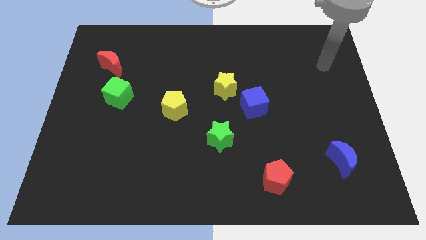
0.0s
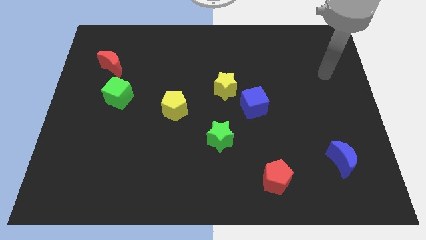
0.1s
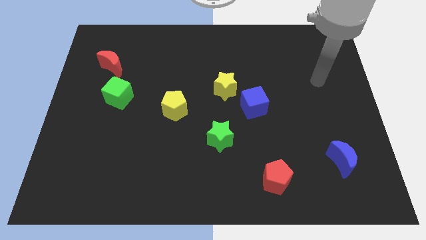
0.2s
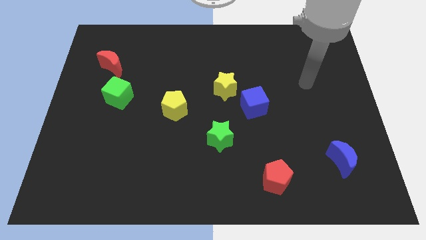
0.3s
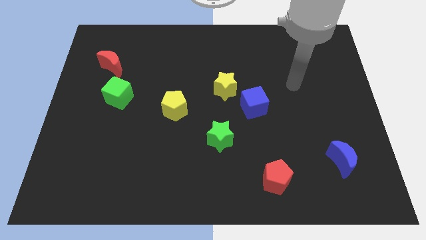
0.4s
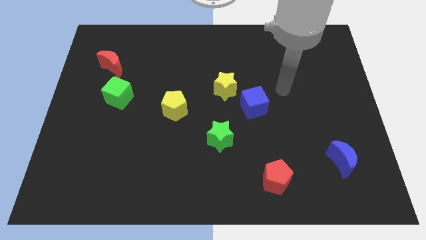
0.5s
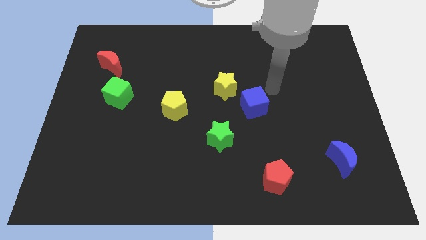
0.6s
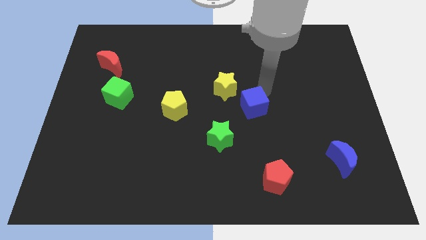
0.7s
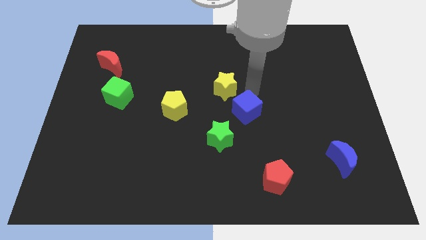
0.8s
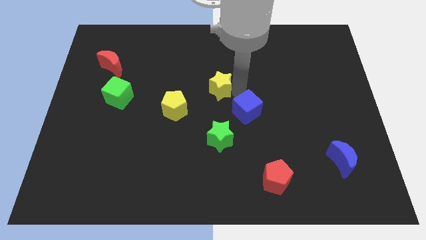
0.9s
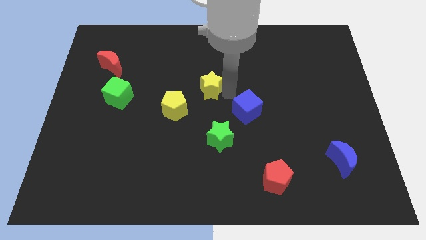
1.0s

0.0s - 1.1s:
move the blue cube away from the yellow star

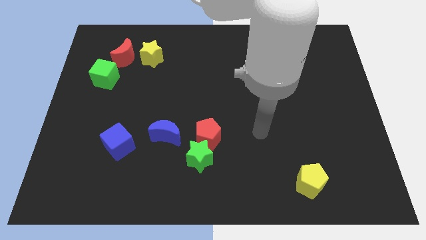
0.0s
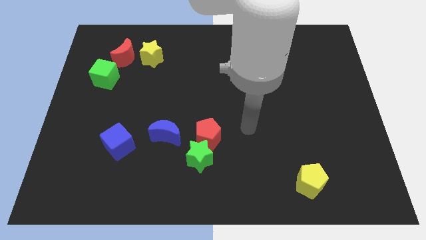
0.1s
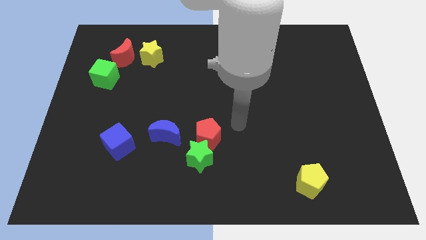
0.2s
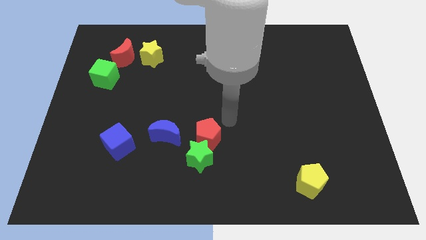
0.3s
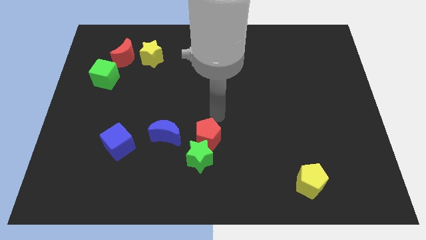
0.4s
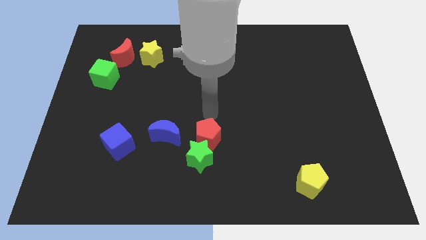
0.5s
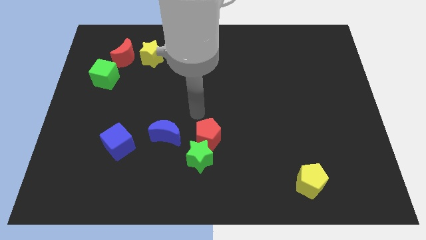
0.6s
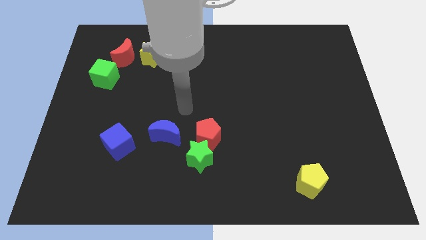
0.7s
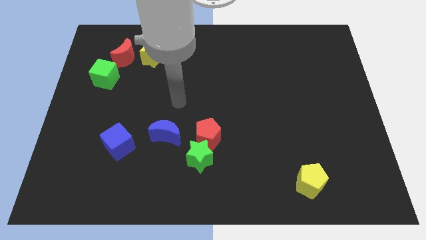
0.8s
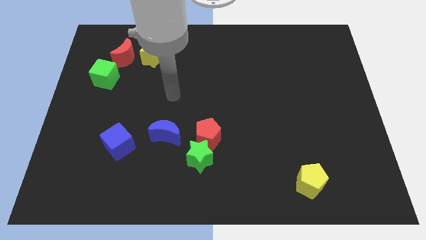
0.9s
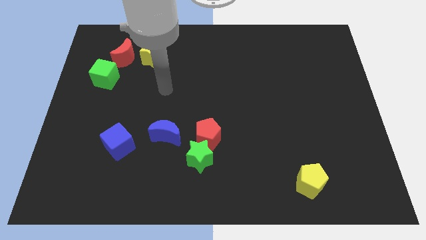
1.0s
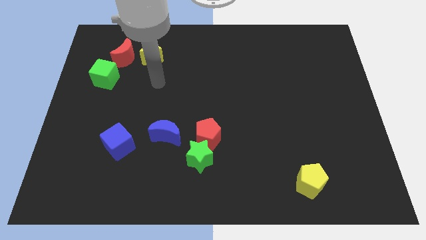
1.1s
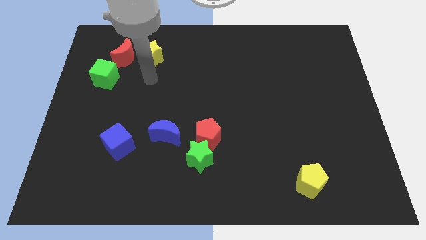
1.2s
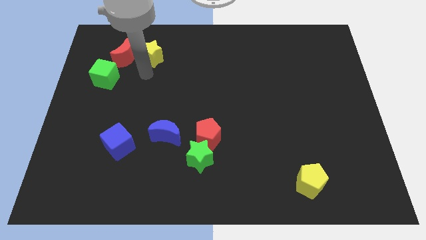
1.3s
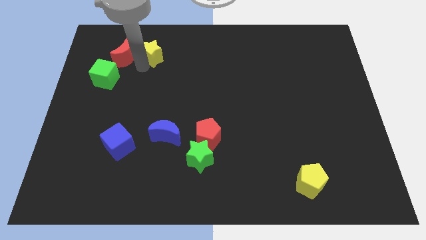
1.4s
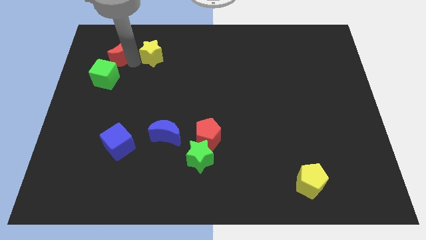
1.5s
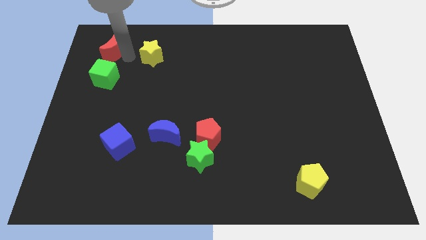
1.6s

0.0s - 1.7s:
move the yellow star away from the red moon

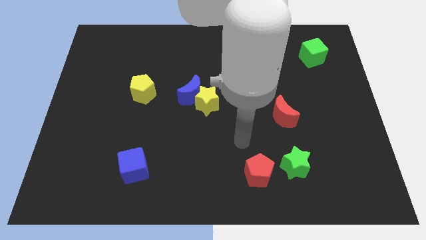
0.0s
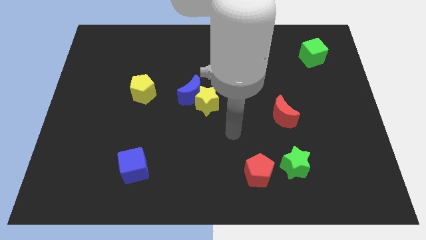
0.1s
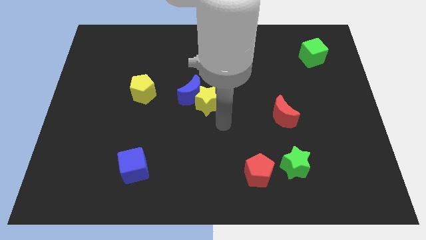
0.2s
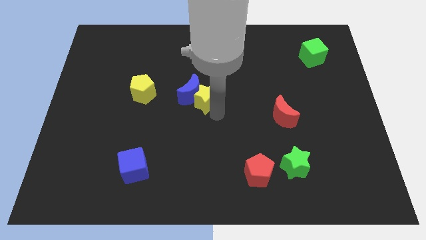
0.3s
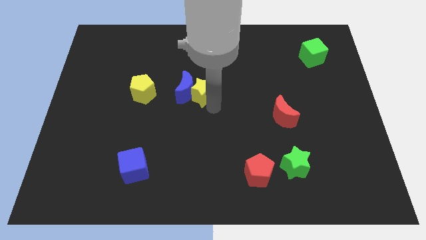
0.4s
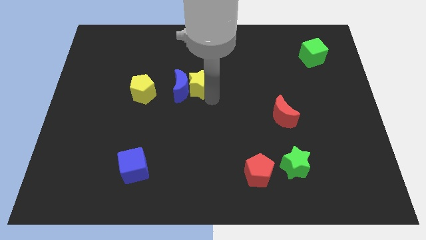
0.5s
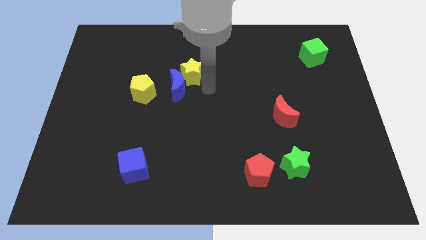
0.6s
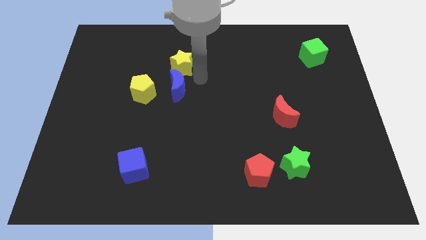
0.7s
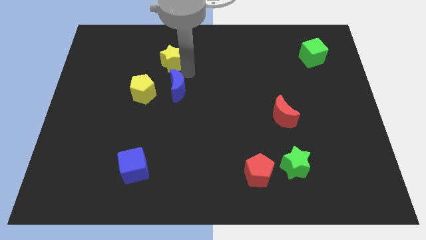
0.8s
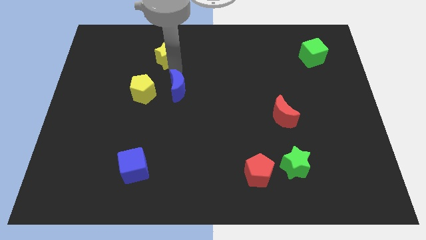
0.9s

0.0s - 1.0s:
pull the blue moon apart from the yellow star

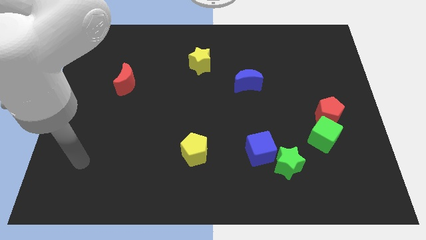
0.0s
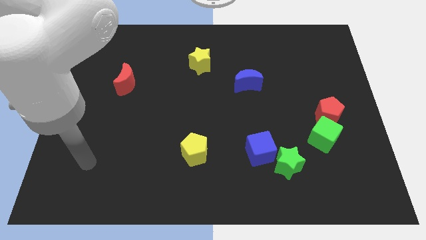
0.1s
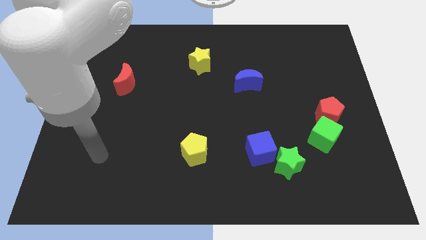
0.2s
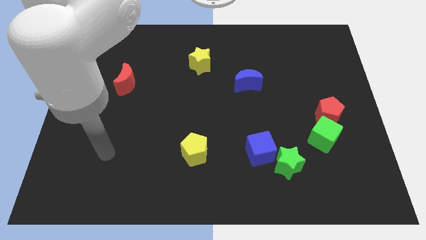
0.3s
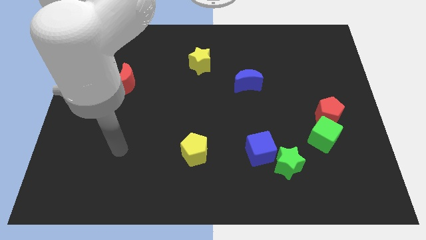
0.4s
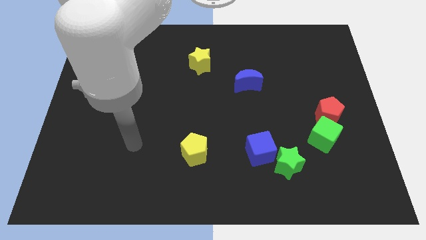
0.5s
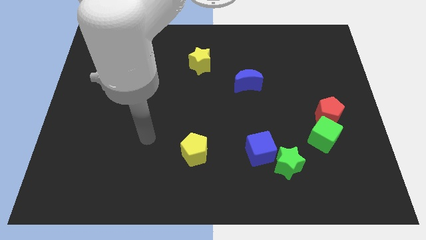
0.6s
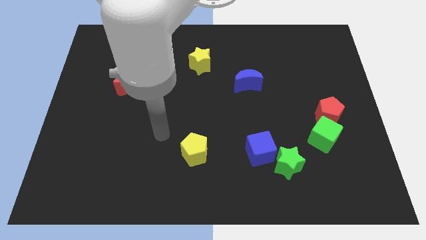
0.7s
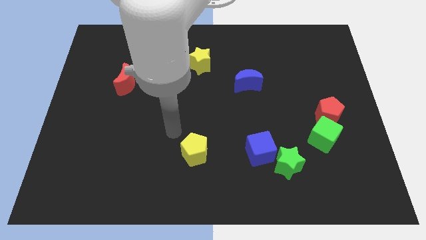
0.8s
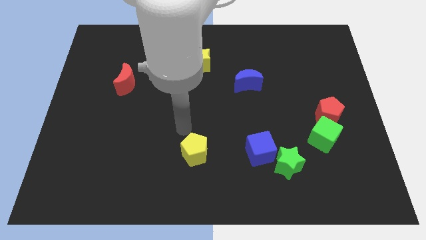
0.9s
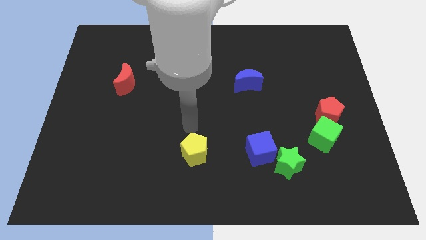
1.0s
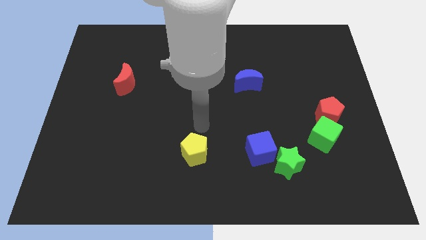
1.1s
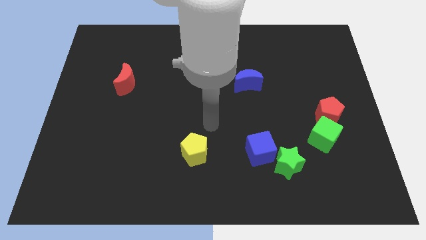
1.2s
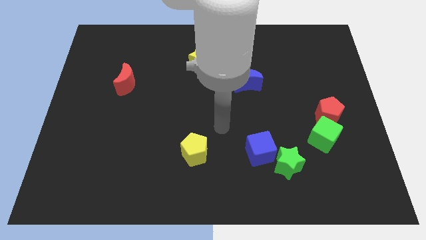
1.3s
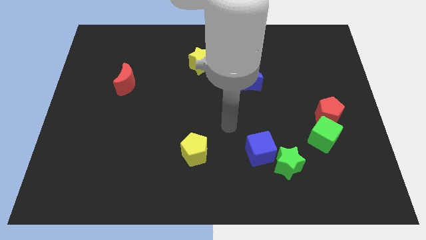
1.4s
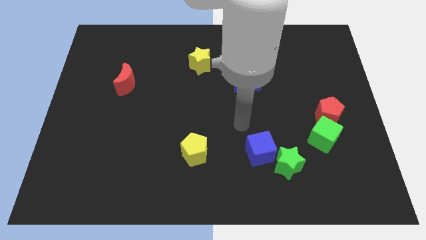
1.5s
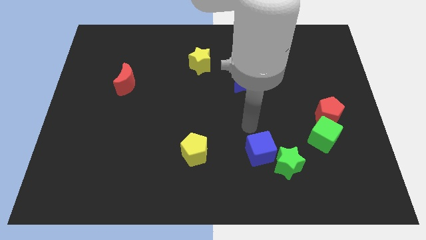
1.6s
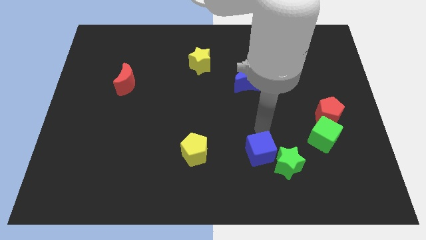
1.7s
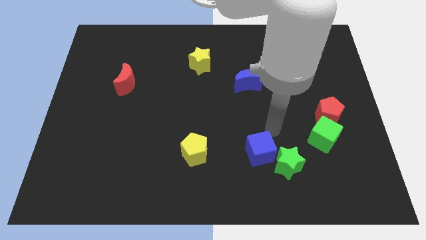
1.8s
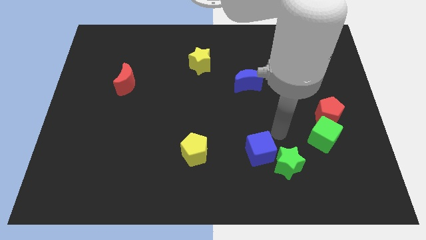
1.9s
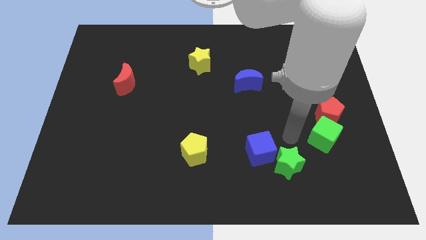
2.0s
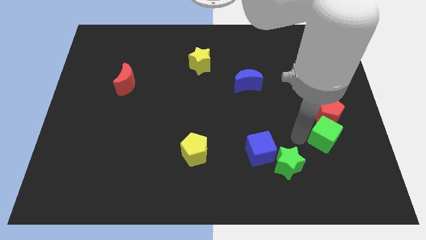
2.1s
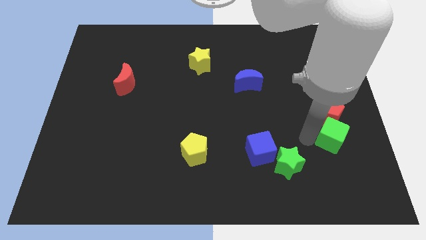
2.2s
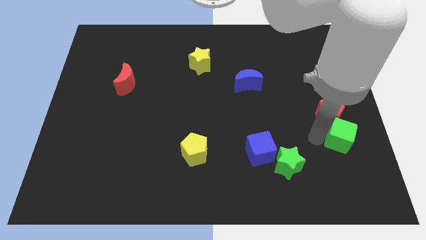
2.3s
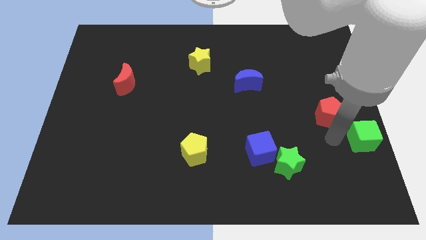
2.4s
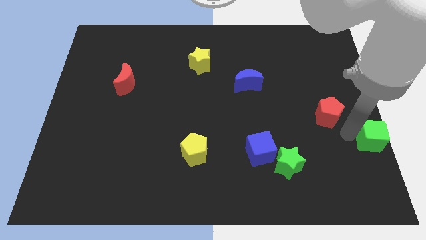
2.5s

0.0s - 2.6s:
pull the red pentagon apart from the green cube

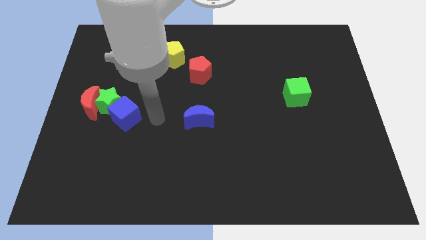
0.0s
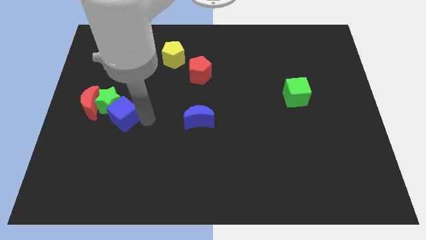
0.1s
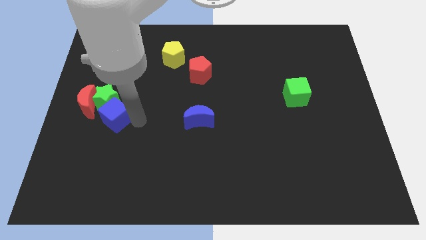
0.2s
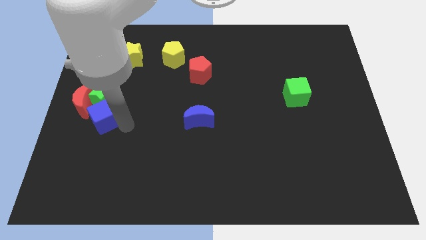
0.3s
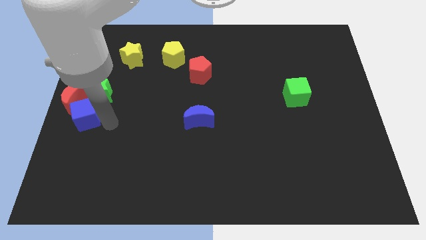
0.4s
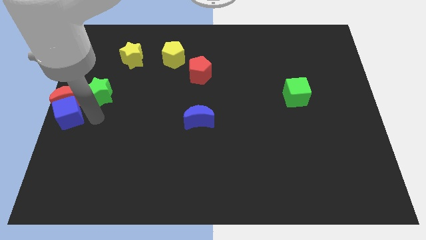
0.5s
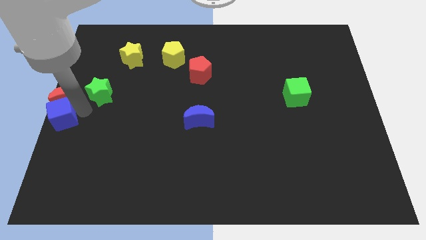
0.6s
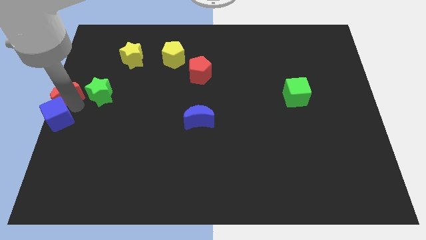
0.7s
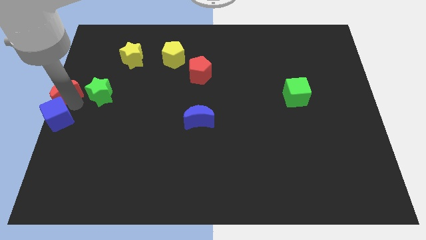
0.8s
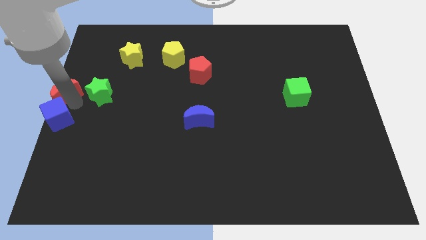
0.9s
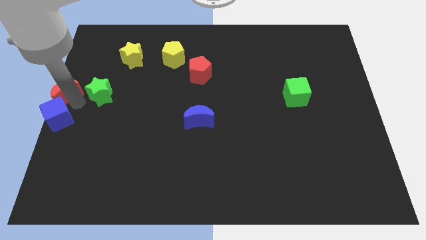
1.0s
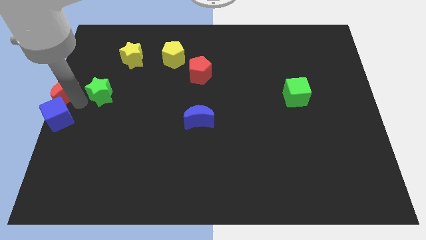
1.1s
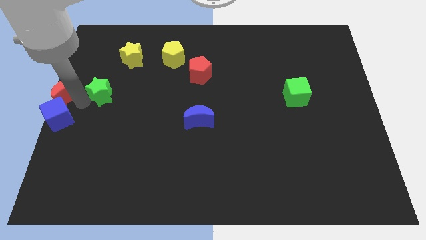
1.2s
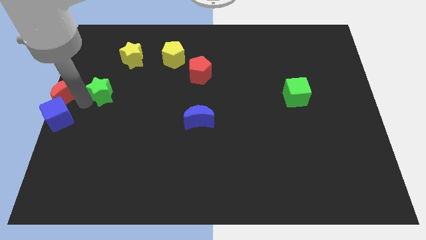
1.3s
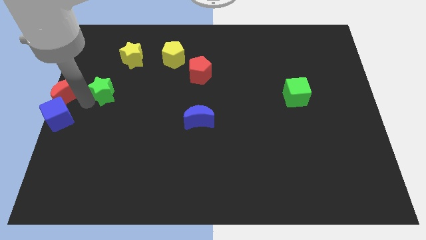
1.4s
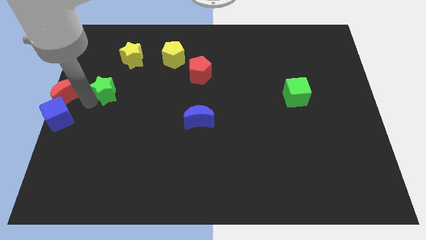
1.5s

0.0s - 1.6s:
pull the green star apart from the red moon and blue cube

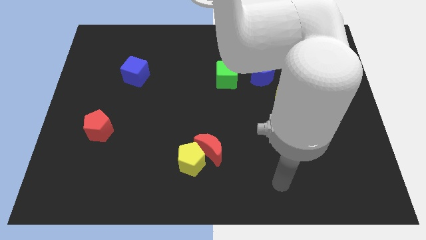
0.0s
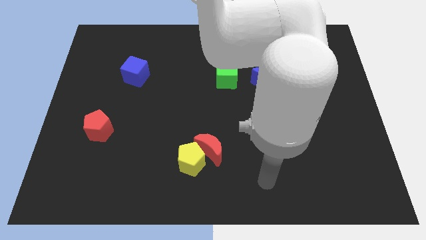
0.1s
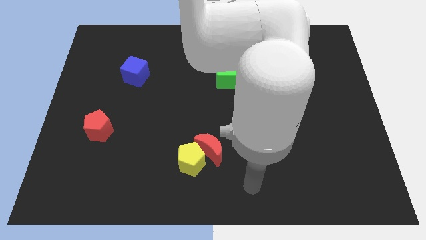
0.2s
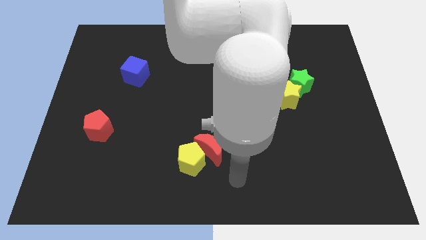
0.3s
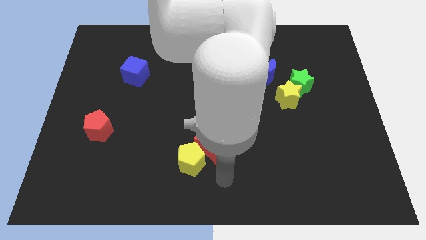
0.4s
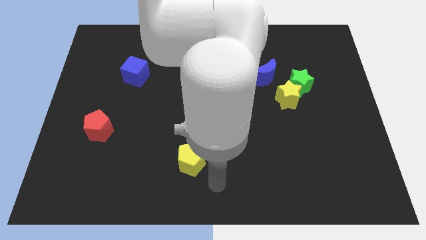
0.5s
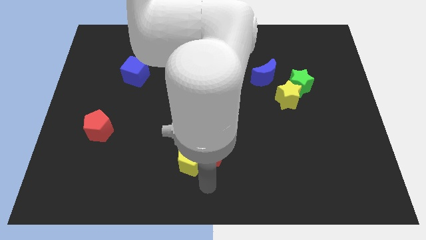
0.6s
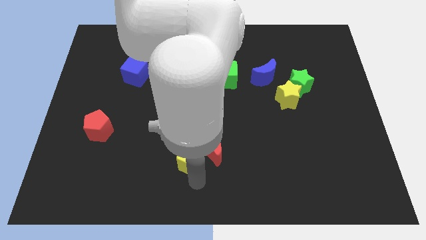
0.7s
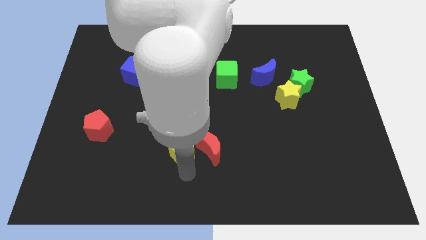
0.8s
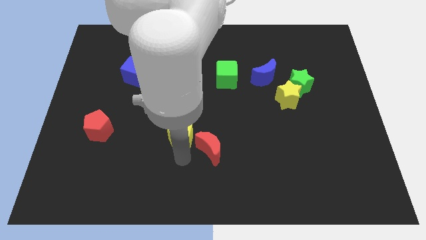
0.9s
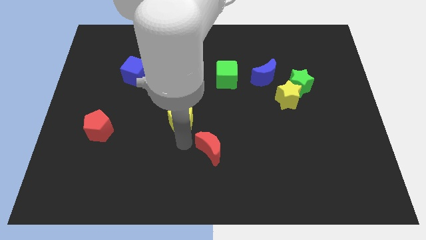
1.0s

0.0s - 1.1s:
separate the red moon from the yellow pentagon

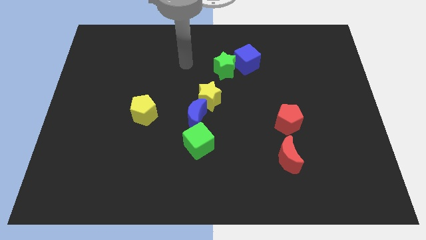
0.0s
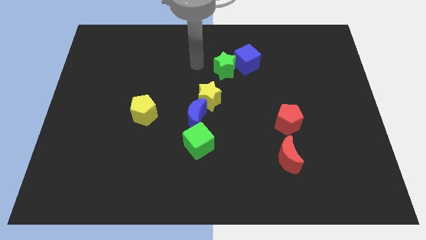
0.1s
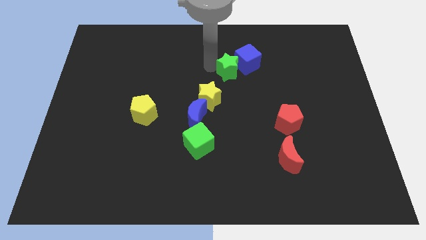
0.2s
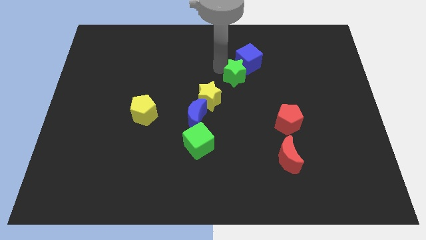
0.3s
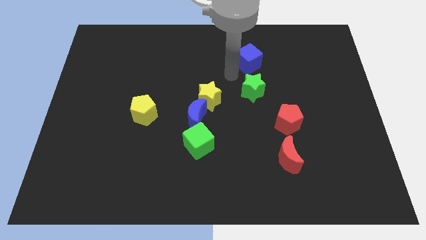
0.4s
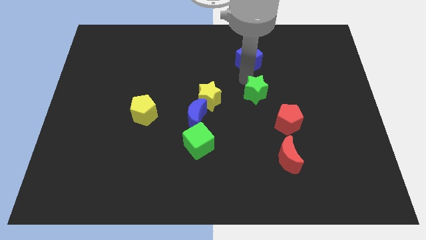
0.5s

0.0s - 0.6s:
separate the blue cube from the green star
